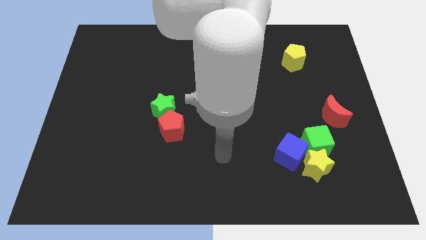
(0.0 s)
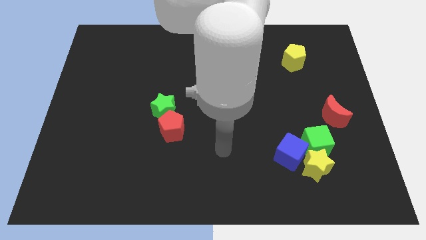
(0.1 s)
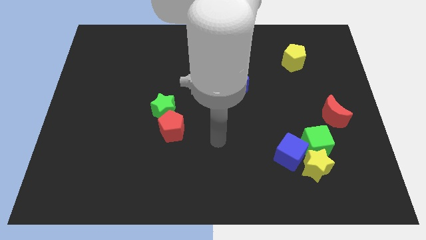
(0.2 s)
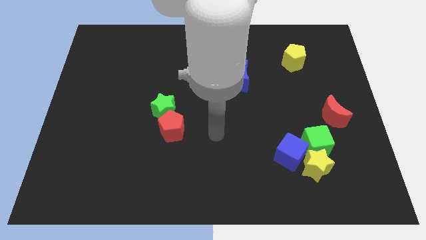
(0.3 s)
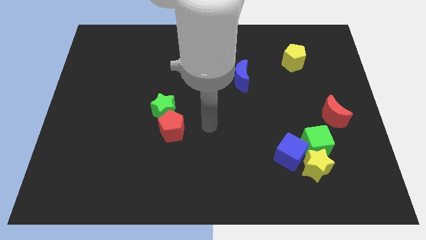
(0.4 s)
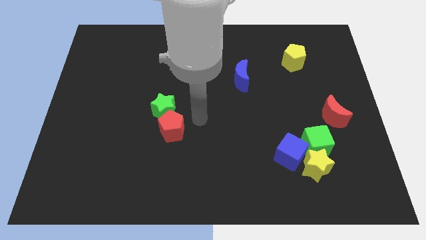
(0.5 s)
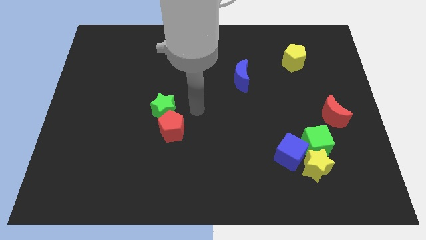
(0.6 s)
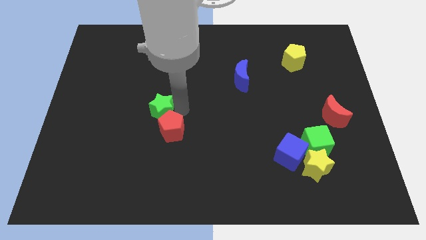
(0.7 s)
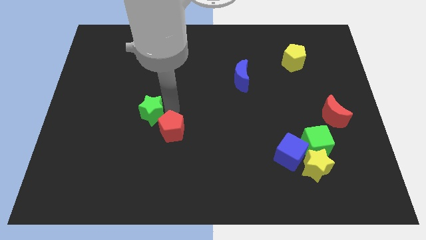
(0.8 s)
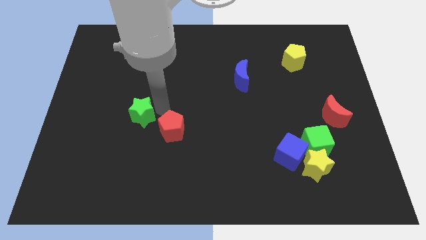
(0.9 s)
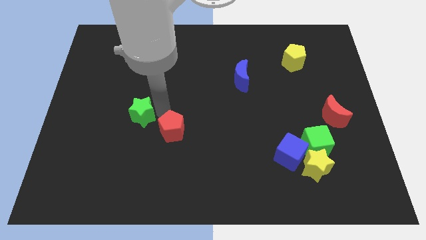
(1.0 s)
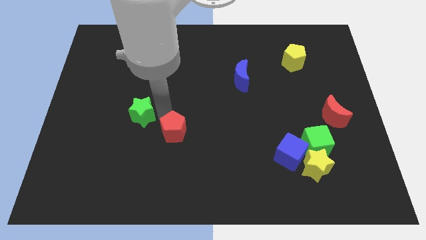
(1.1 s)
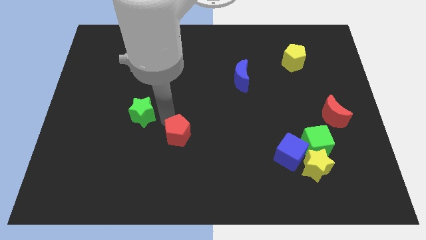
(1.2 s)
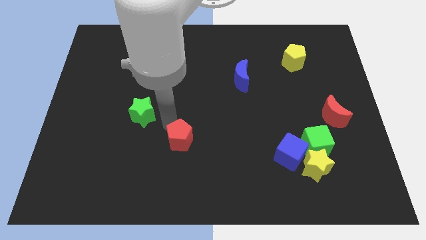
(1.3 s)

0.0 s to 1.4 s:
separate the red pentagon from the green star

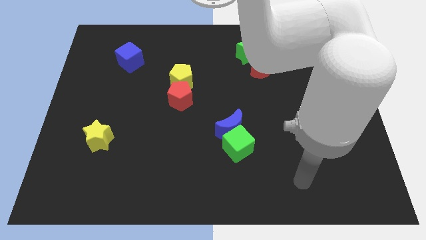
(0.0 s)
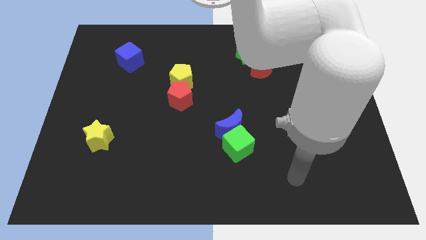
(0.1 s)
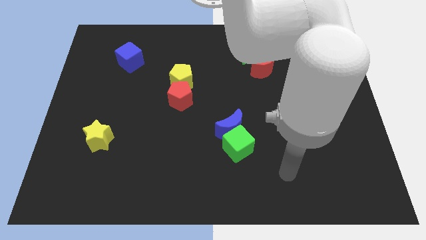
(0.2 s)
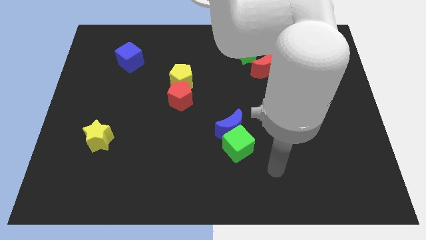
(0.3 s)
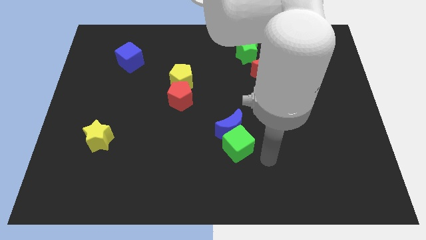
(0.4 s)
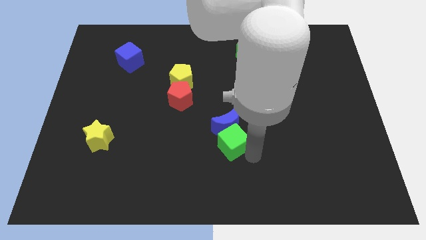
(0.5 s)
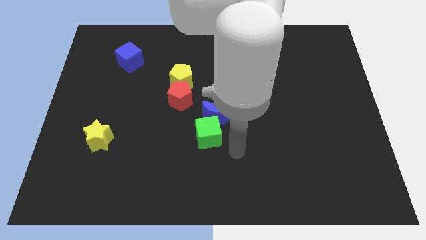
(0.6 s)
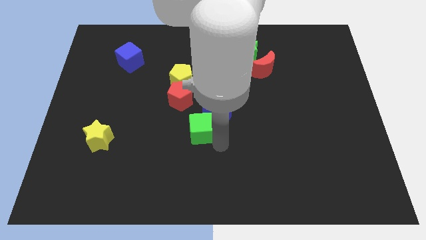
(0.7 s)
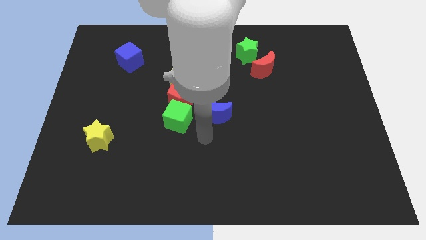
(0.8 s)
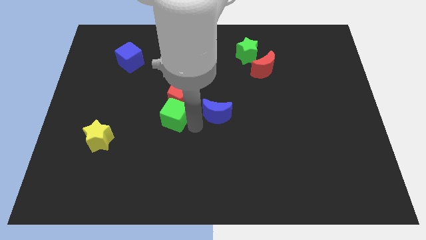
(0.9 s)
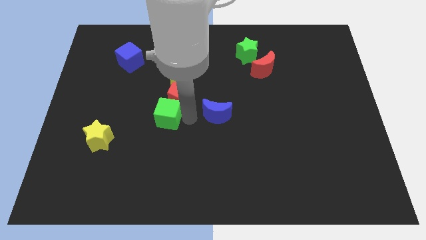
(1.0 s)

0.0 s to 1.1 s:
move the blue moon away from the green cube

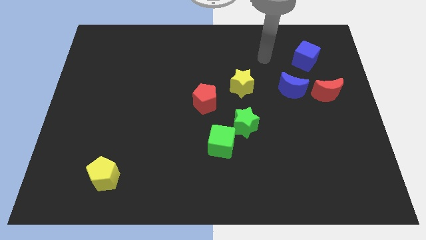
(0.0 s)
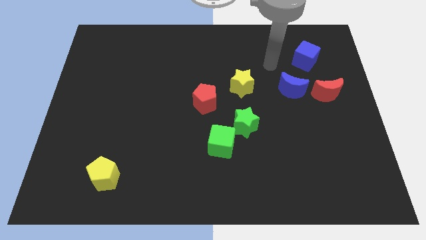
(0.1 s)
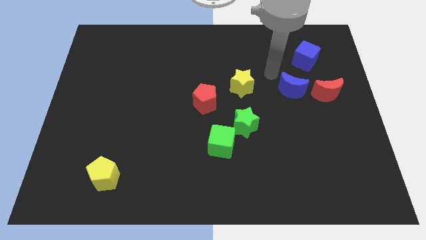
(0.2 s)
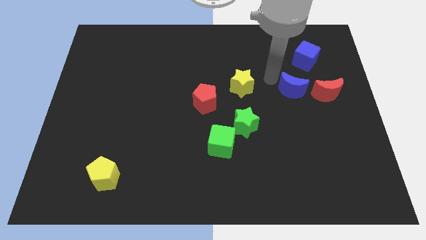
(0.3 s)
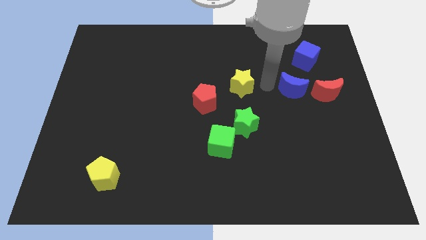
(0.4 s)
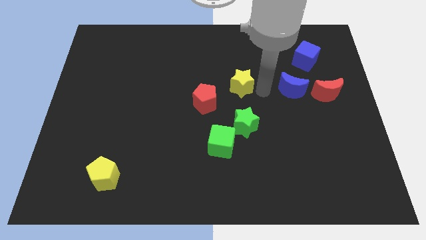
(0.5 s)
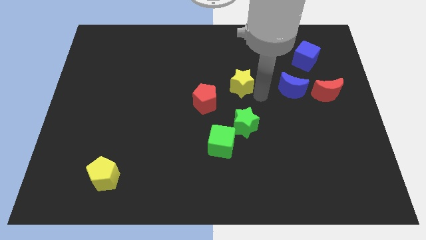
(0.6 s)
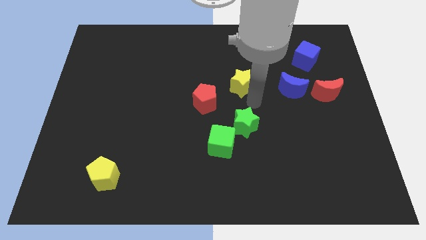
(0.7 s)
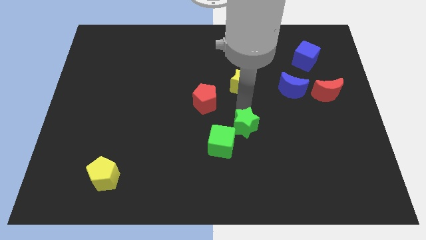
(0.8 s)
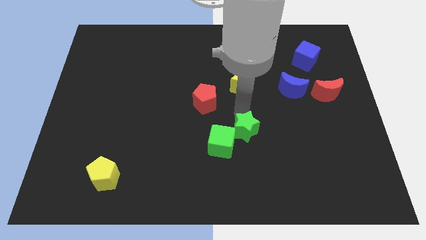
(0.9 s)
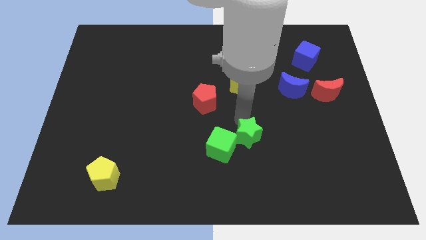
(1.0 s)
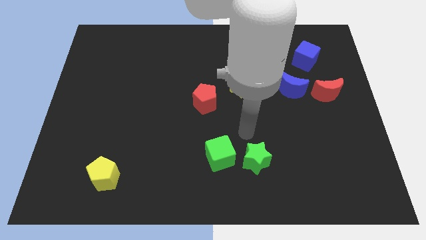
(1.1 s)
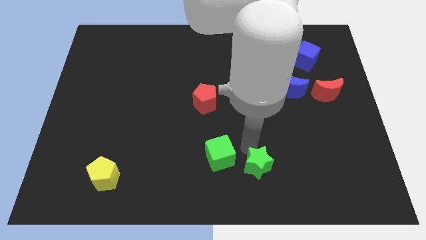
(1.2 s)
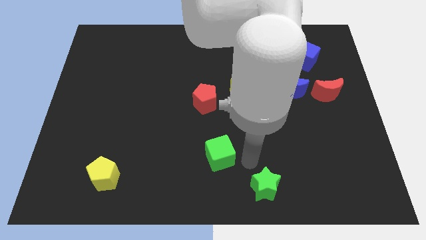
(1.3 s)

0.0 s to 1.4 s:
separate the green cube from the green star

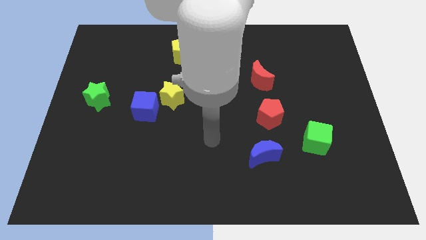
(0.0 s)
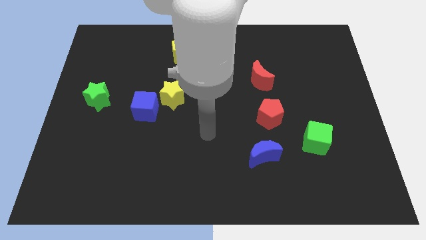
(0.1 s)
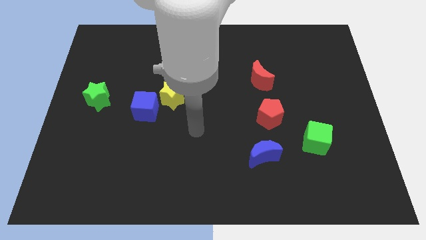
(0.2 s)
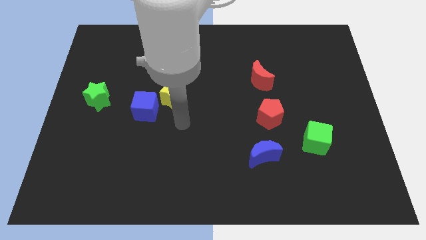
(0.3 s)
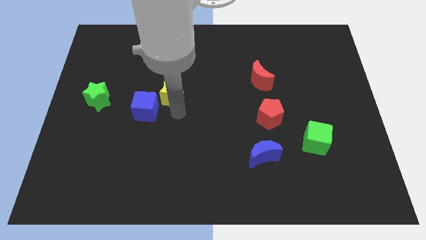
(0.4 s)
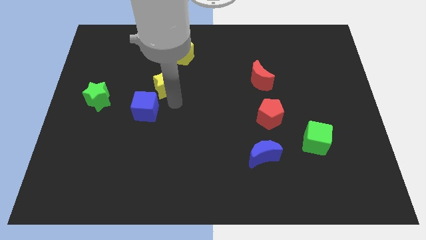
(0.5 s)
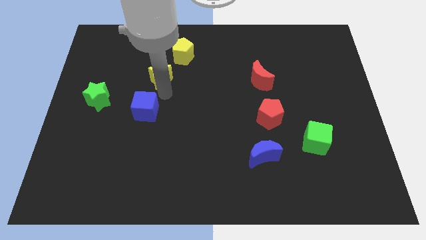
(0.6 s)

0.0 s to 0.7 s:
separate the blue cube from the yellow star

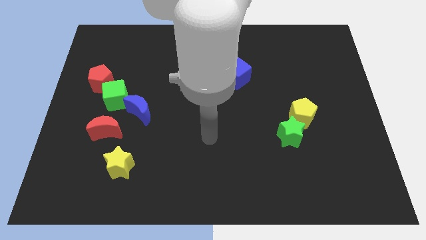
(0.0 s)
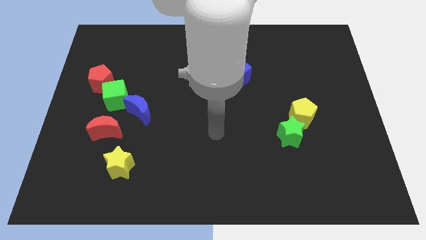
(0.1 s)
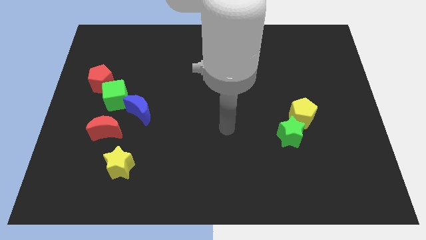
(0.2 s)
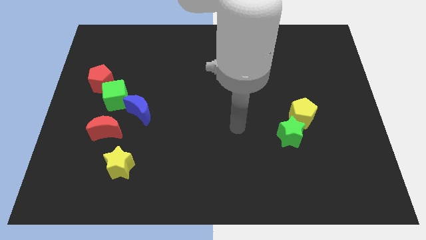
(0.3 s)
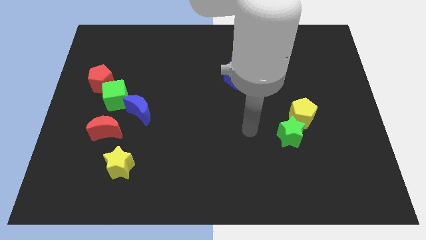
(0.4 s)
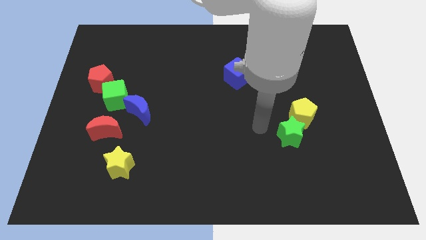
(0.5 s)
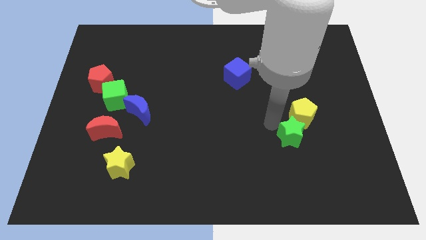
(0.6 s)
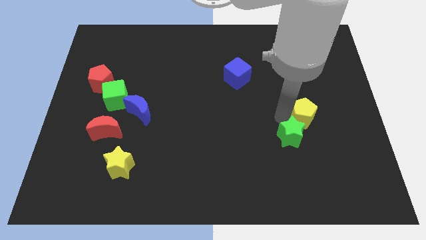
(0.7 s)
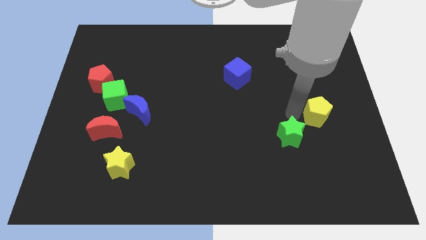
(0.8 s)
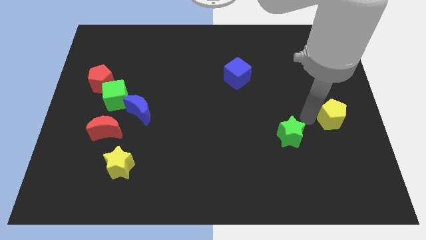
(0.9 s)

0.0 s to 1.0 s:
separate the green star from the yellow pentagon

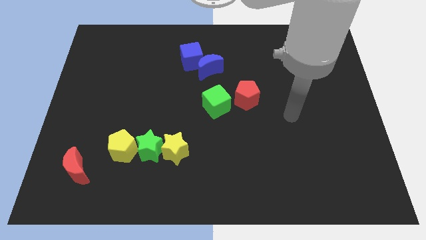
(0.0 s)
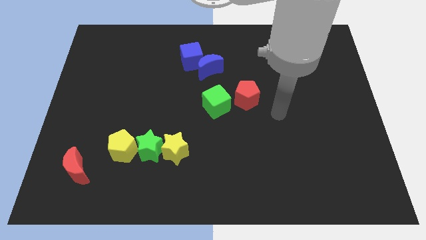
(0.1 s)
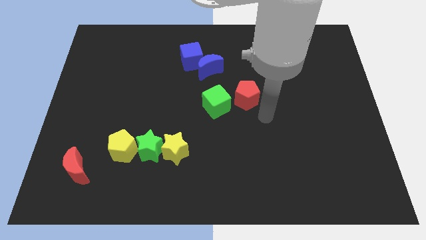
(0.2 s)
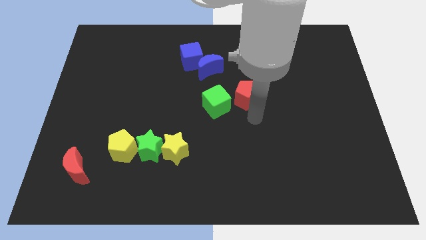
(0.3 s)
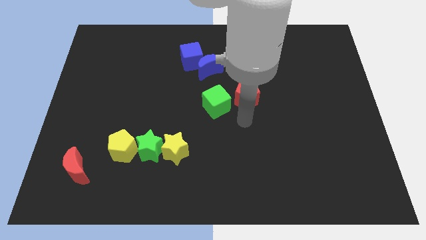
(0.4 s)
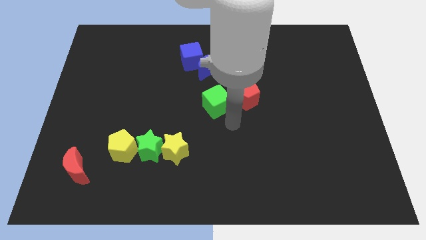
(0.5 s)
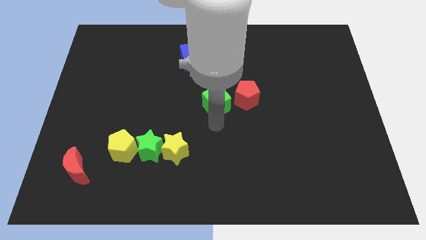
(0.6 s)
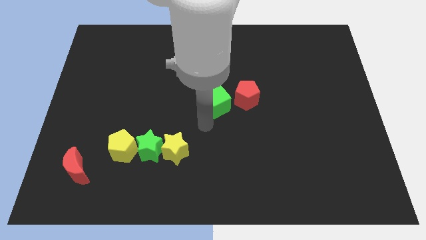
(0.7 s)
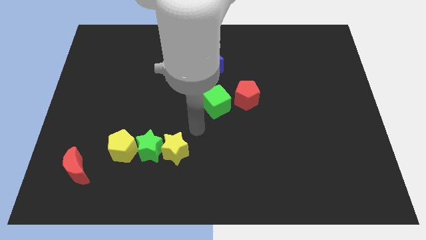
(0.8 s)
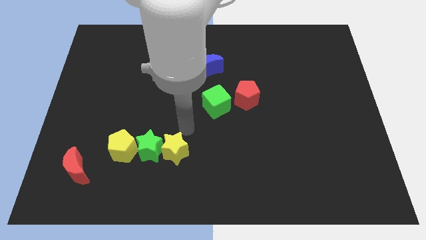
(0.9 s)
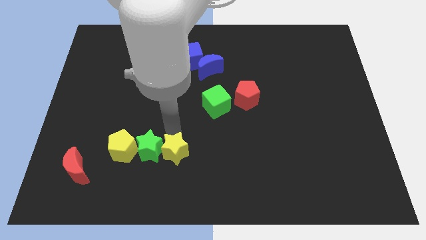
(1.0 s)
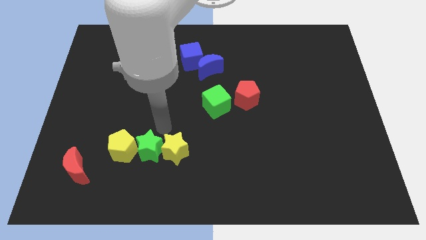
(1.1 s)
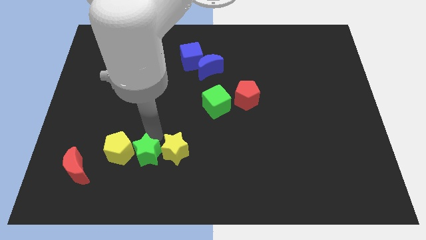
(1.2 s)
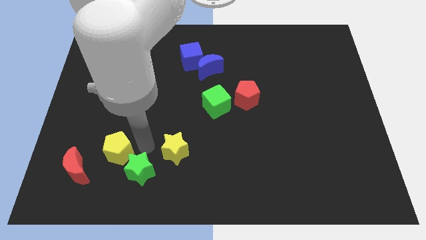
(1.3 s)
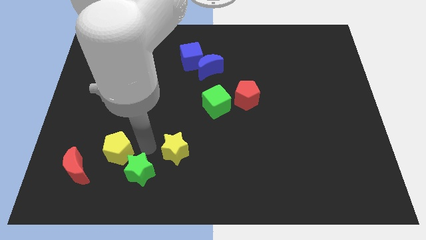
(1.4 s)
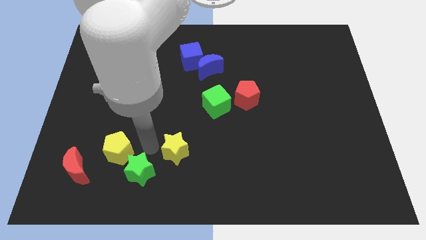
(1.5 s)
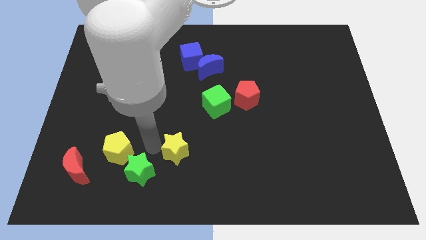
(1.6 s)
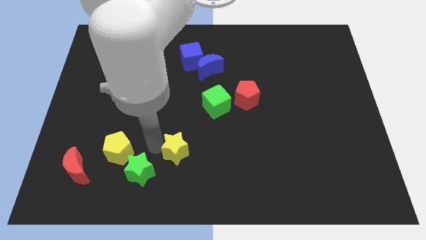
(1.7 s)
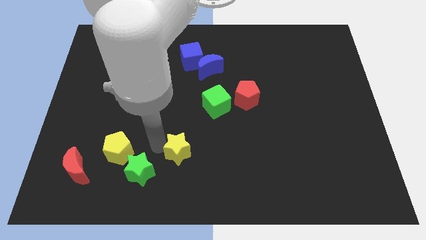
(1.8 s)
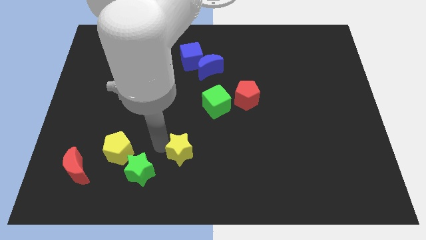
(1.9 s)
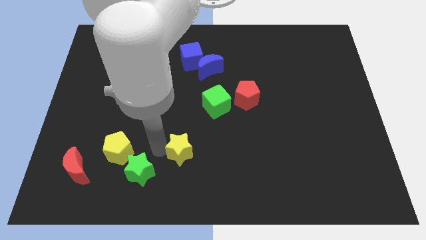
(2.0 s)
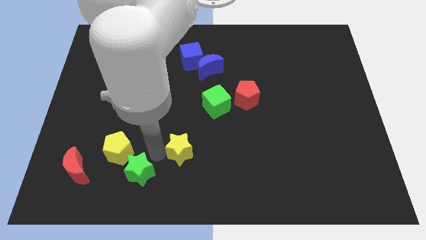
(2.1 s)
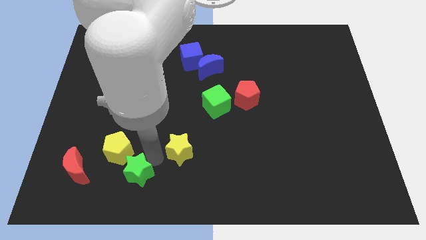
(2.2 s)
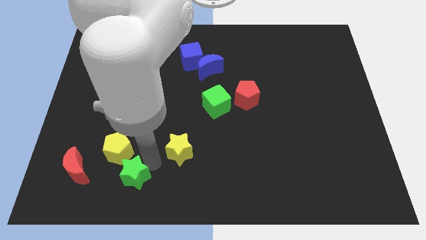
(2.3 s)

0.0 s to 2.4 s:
separate the yellow star from the green star

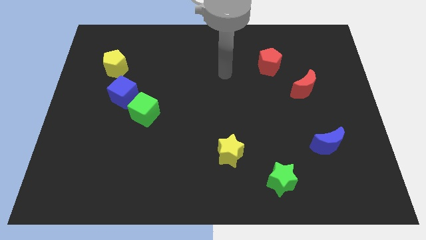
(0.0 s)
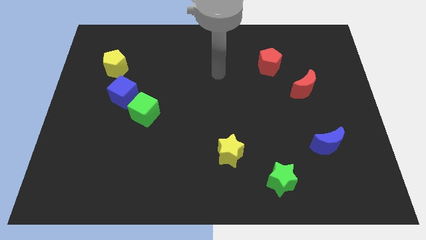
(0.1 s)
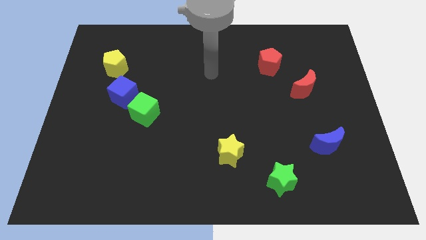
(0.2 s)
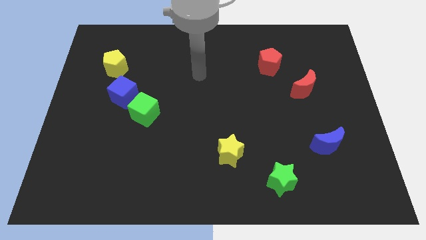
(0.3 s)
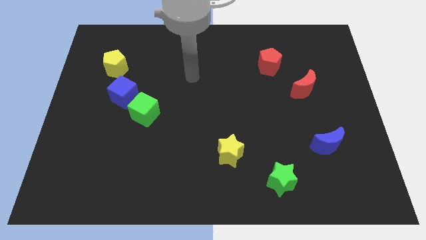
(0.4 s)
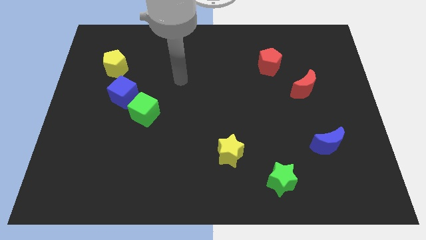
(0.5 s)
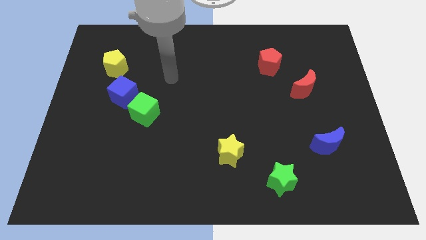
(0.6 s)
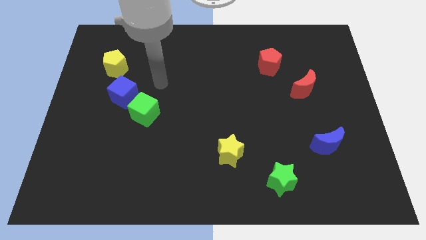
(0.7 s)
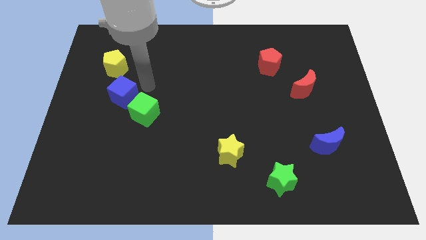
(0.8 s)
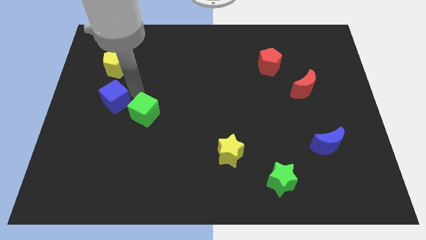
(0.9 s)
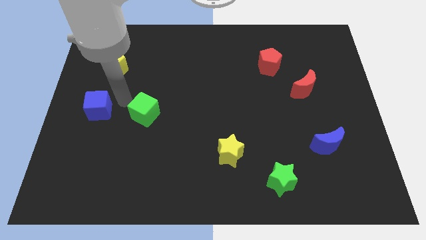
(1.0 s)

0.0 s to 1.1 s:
pull the green cube apart from the blue cube

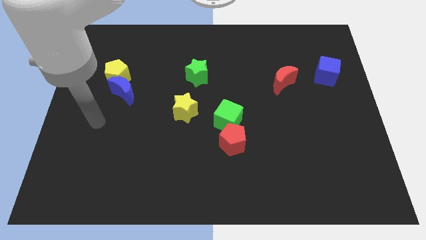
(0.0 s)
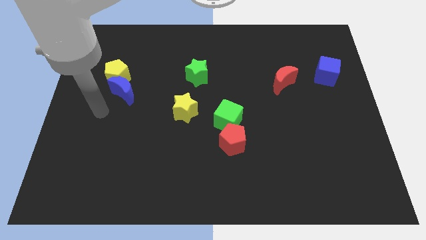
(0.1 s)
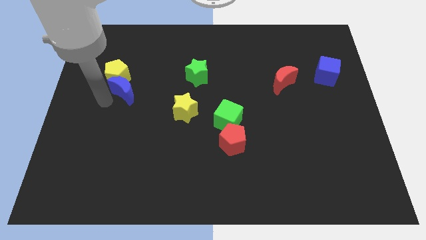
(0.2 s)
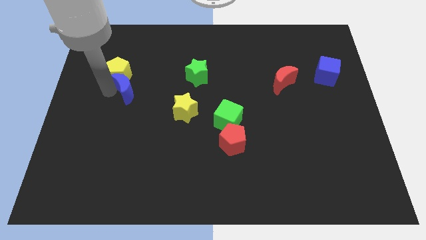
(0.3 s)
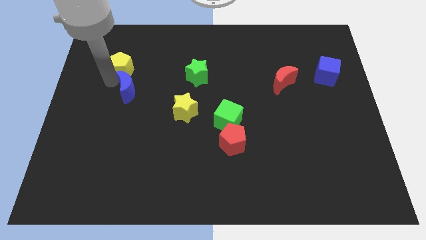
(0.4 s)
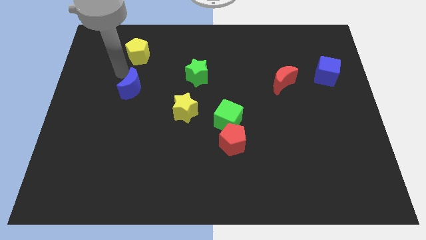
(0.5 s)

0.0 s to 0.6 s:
move the blue moon away from the yellow pentagon
